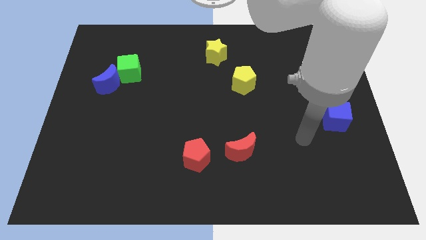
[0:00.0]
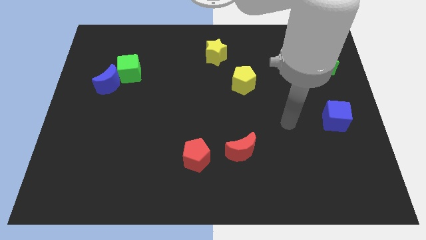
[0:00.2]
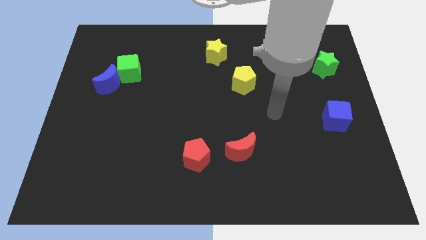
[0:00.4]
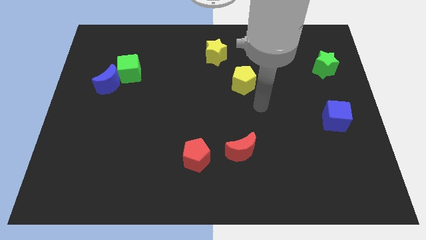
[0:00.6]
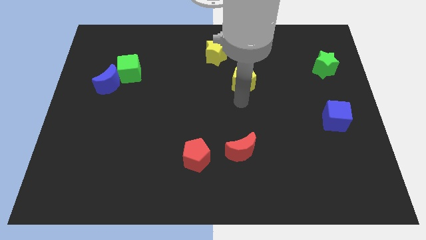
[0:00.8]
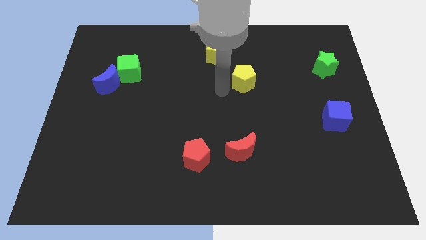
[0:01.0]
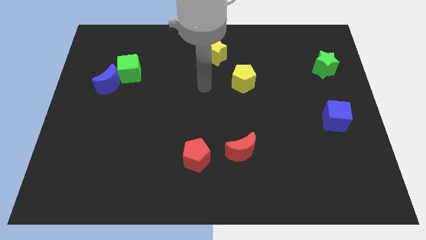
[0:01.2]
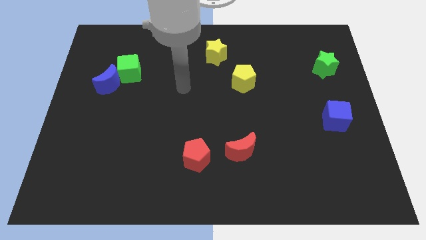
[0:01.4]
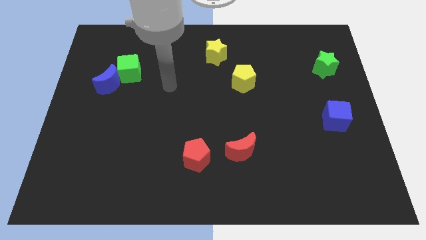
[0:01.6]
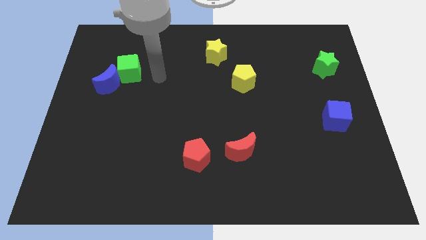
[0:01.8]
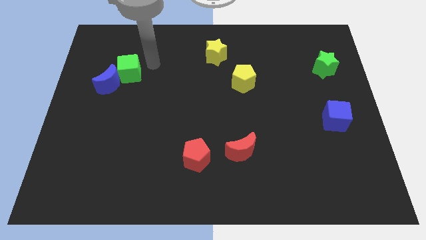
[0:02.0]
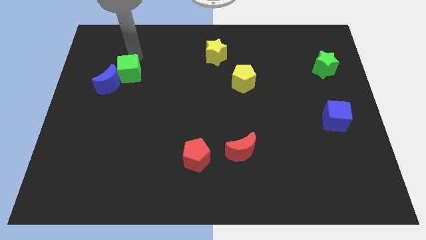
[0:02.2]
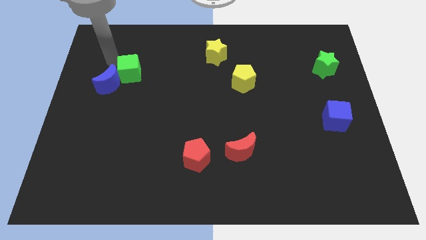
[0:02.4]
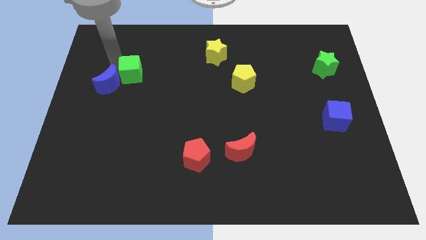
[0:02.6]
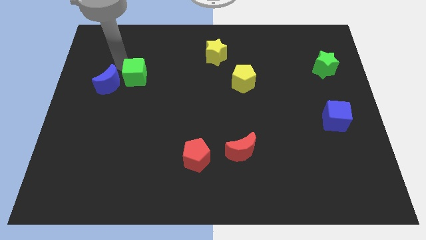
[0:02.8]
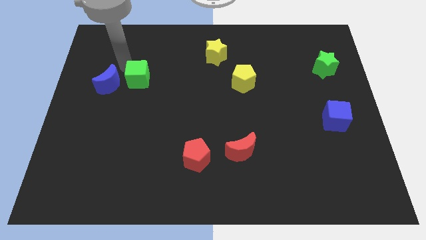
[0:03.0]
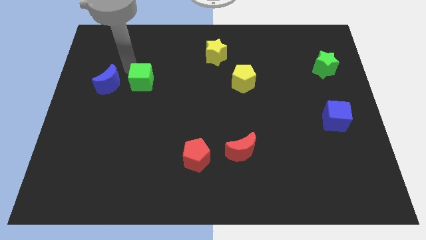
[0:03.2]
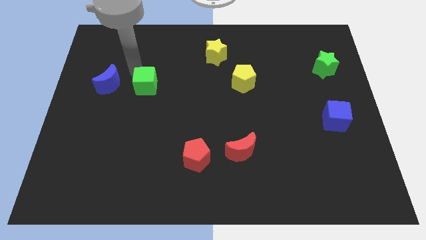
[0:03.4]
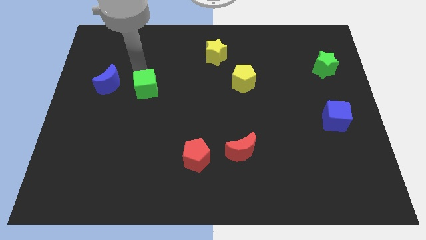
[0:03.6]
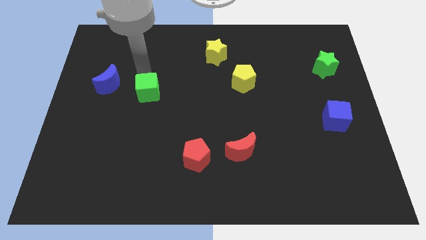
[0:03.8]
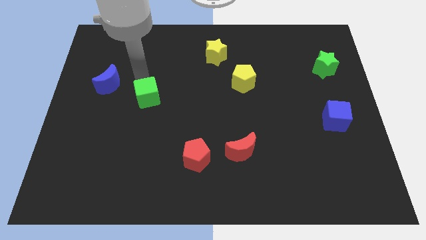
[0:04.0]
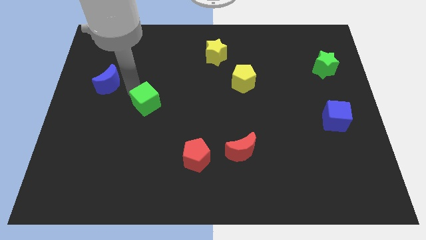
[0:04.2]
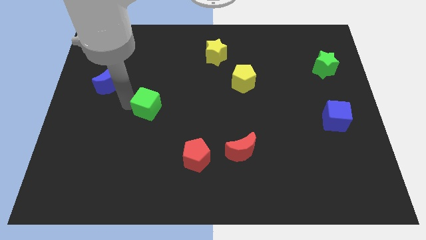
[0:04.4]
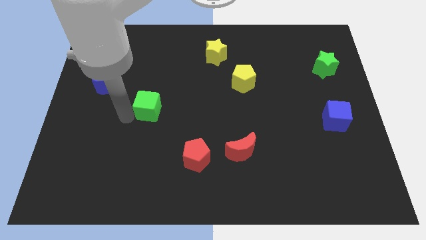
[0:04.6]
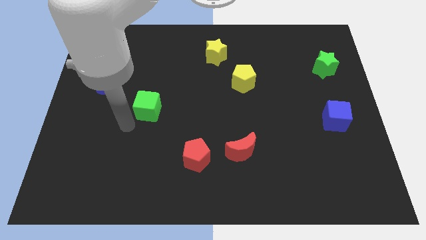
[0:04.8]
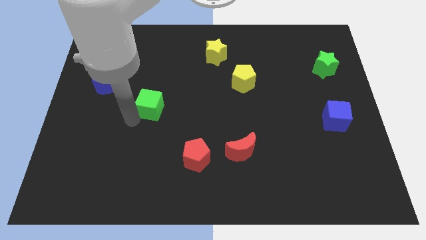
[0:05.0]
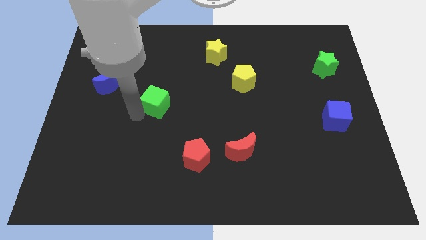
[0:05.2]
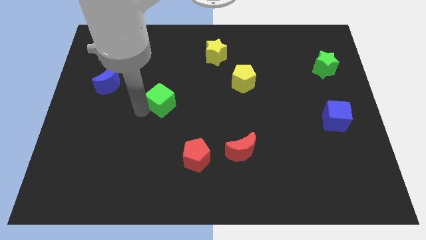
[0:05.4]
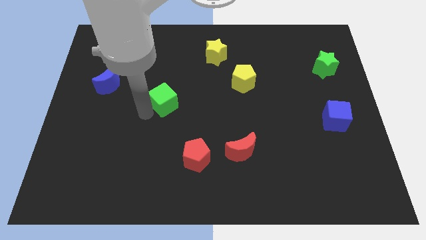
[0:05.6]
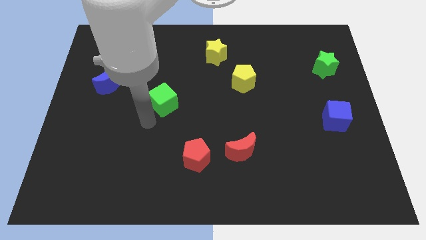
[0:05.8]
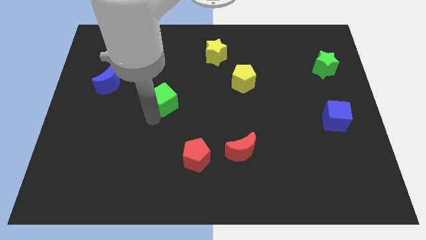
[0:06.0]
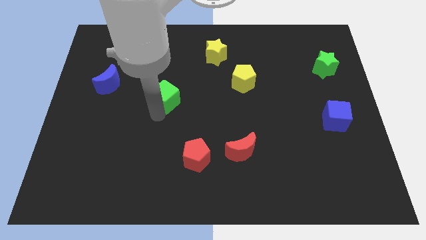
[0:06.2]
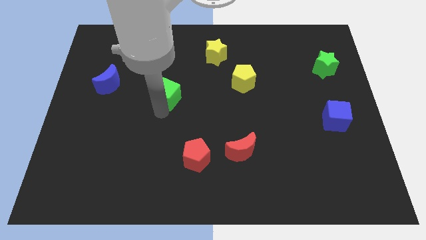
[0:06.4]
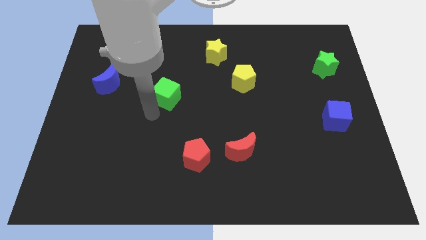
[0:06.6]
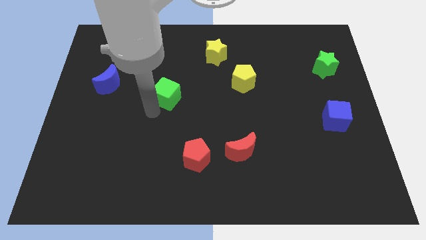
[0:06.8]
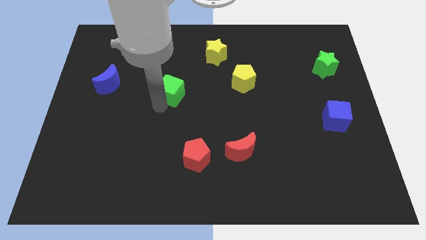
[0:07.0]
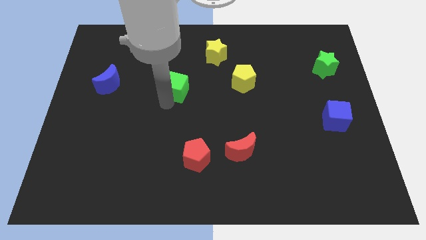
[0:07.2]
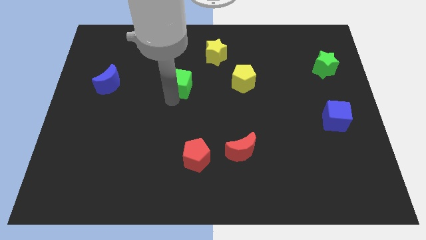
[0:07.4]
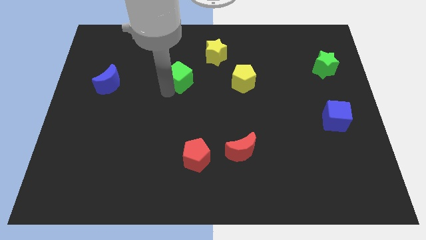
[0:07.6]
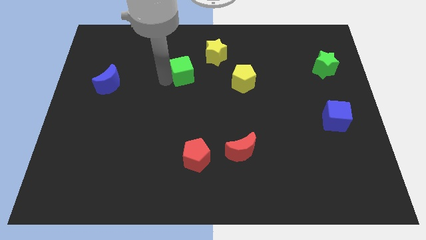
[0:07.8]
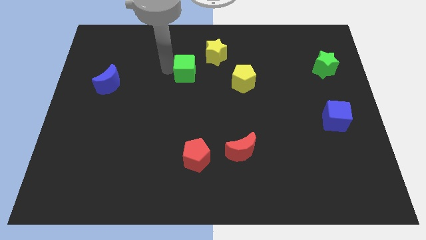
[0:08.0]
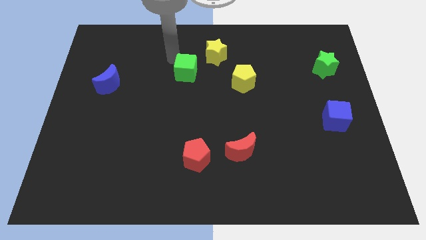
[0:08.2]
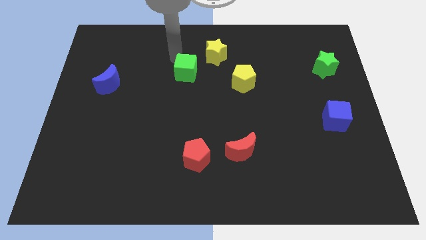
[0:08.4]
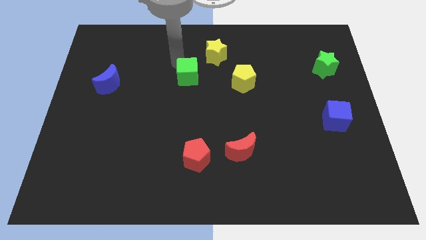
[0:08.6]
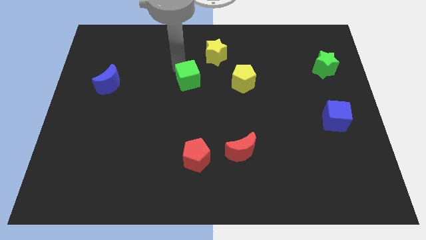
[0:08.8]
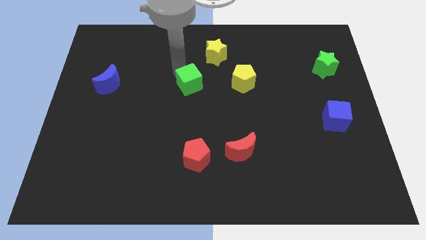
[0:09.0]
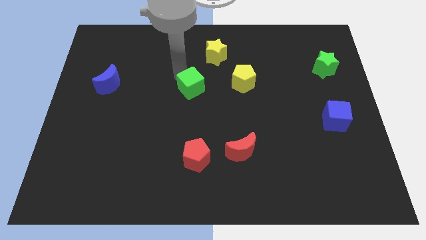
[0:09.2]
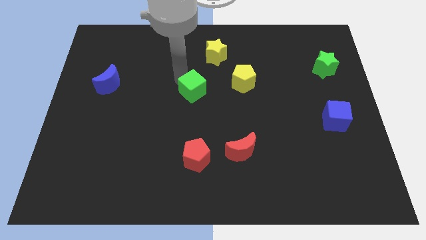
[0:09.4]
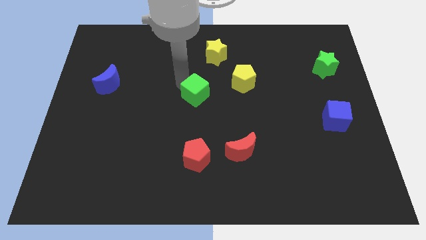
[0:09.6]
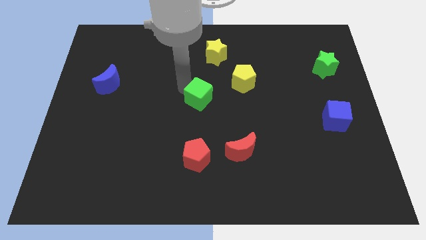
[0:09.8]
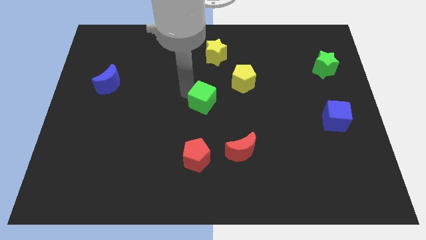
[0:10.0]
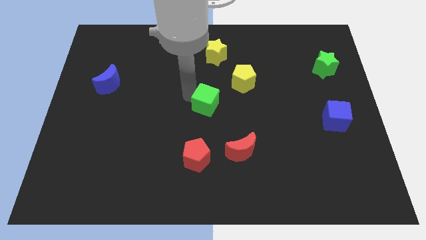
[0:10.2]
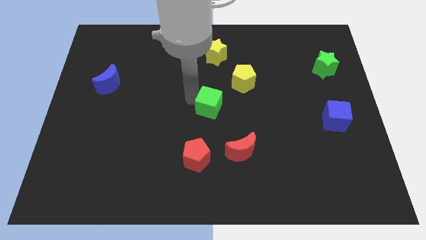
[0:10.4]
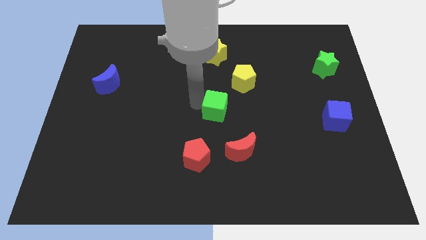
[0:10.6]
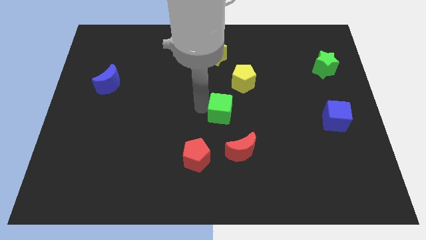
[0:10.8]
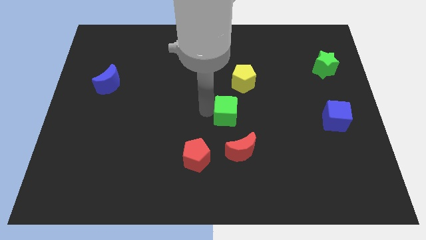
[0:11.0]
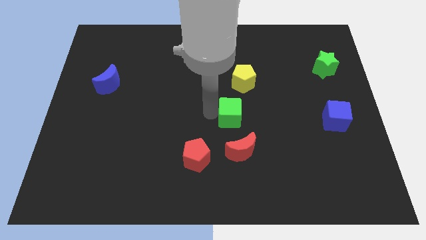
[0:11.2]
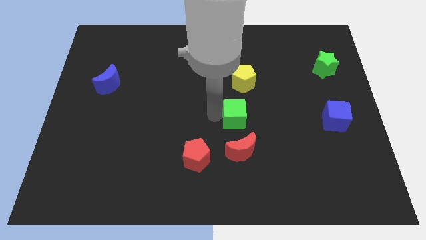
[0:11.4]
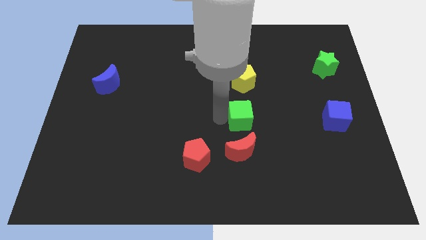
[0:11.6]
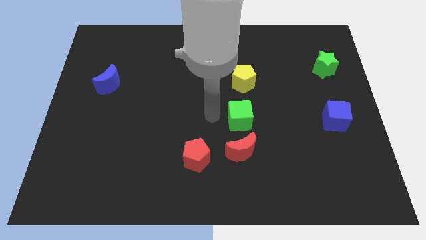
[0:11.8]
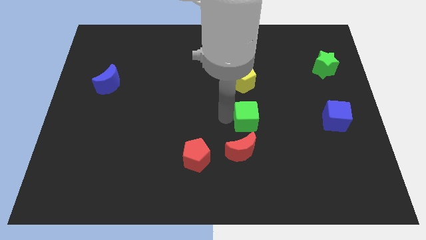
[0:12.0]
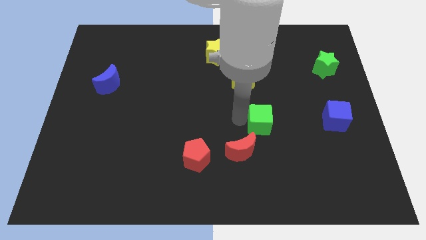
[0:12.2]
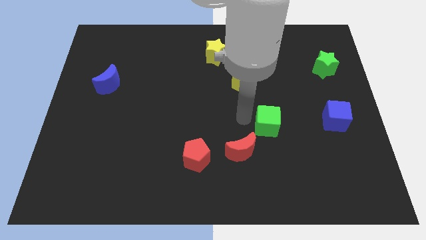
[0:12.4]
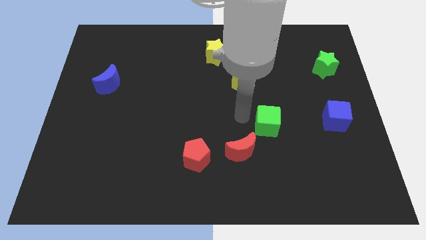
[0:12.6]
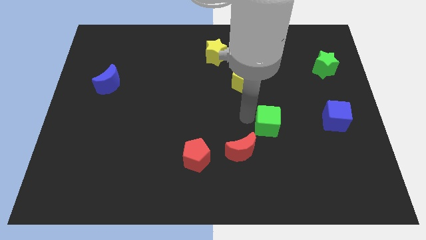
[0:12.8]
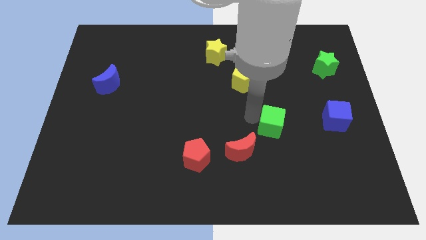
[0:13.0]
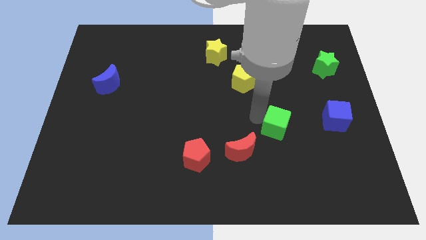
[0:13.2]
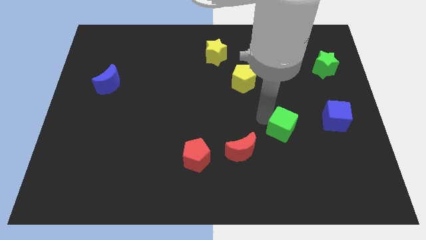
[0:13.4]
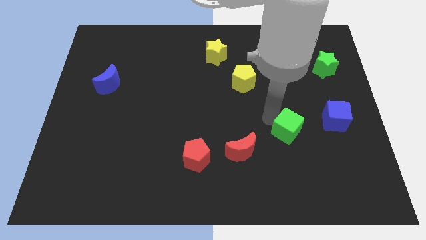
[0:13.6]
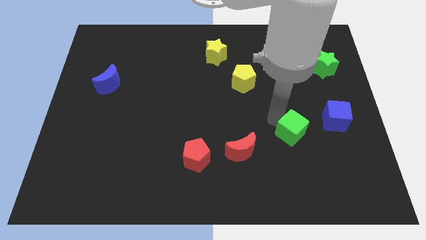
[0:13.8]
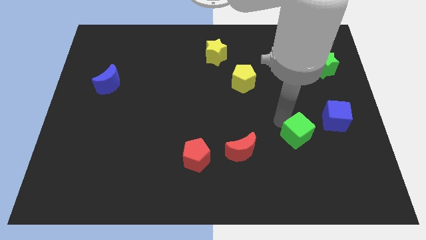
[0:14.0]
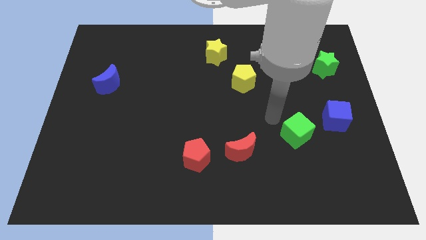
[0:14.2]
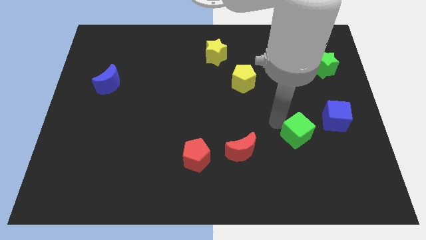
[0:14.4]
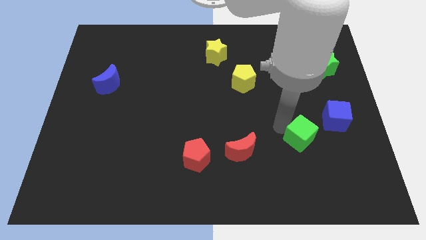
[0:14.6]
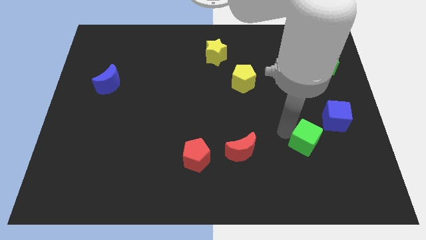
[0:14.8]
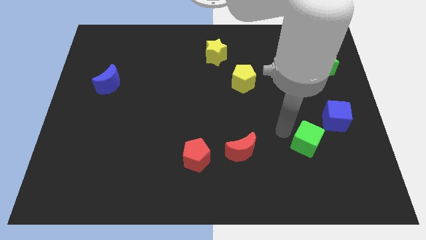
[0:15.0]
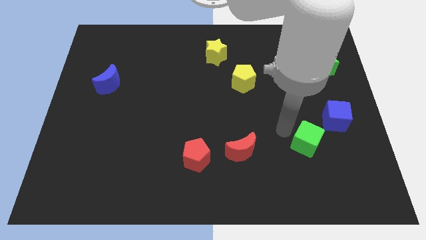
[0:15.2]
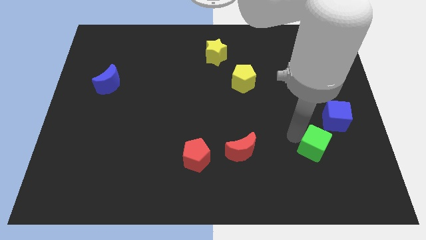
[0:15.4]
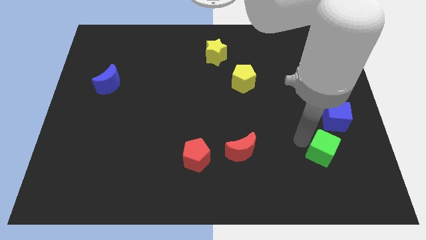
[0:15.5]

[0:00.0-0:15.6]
push the green cube to the bottom side of the blue cube

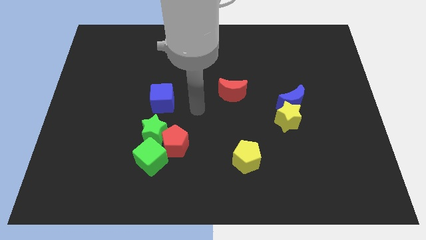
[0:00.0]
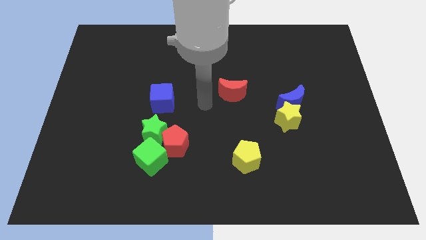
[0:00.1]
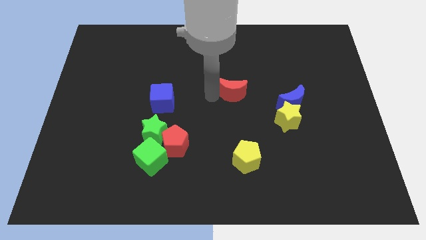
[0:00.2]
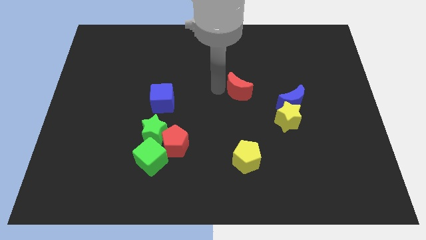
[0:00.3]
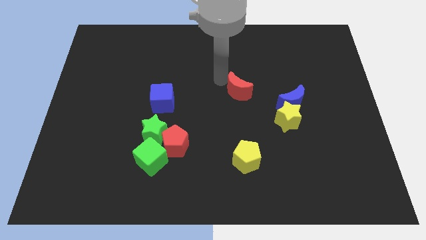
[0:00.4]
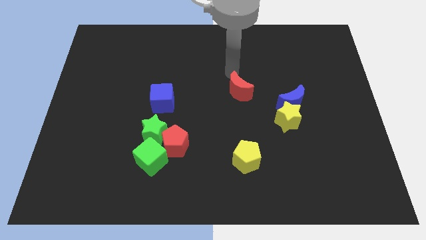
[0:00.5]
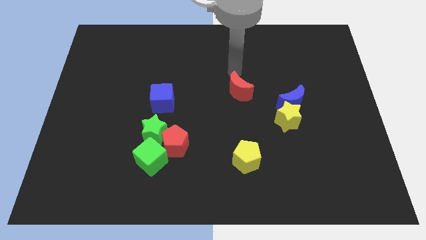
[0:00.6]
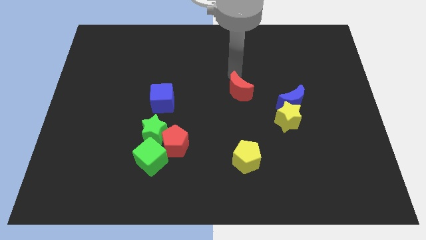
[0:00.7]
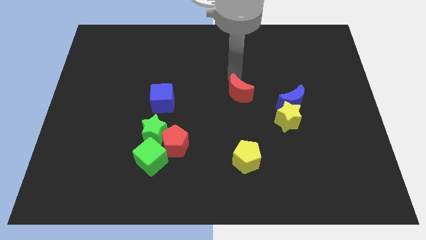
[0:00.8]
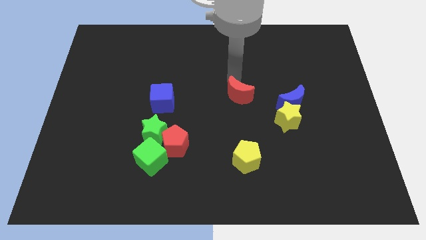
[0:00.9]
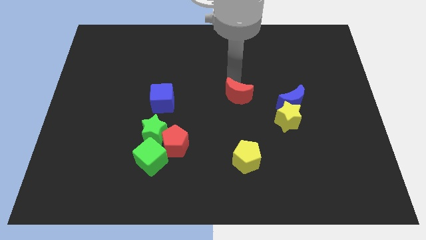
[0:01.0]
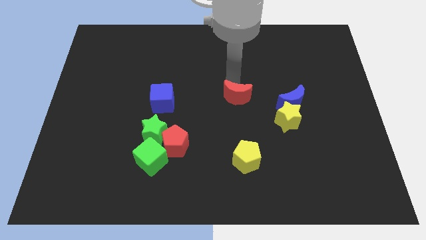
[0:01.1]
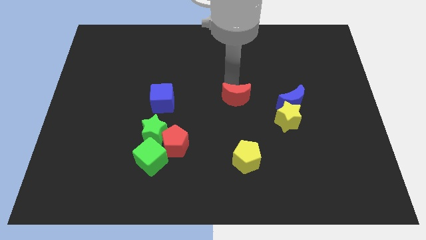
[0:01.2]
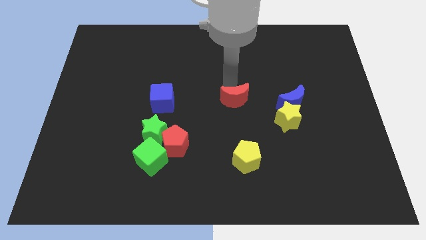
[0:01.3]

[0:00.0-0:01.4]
push the red moon above the yellow pentagon
